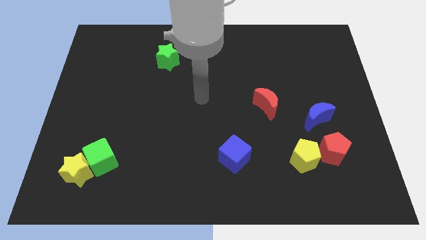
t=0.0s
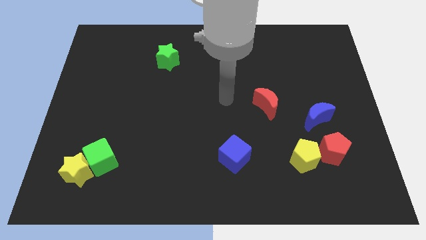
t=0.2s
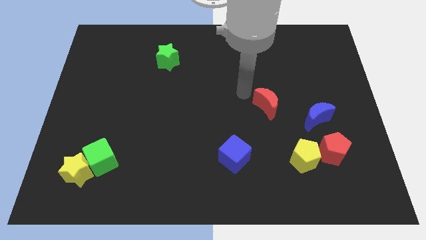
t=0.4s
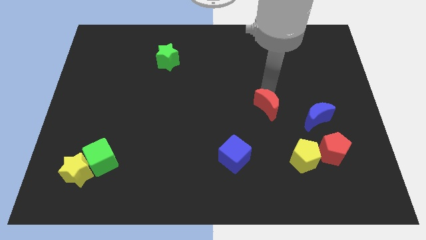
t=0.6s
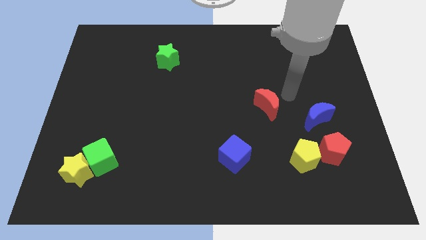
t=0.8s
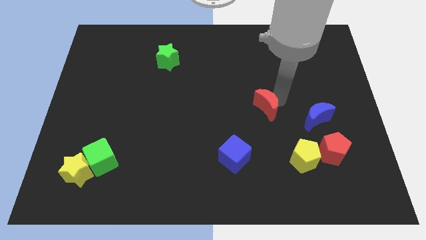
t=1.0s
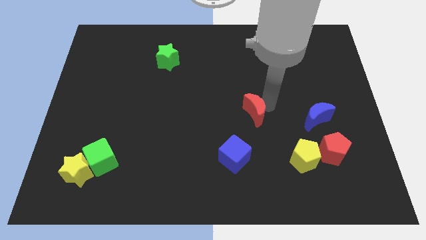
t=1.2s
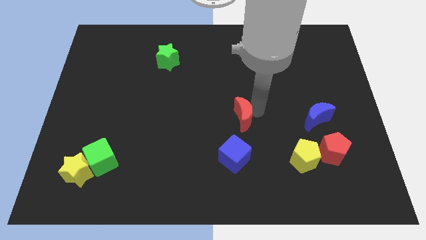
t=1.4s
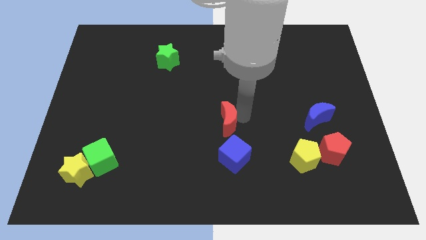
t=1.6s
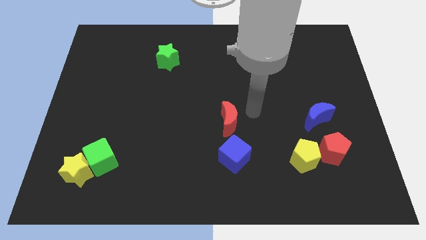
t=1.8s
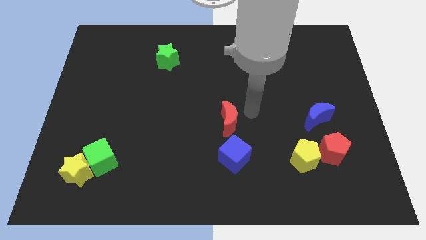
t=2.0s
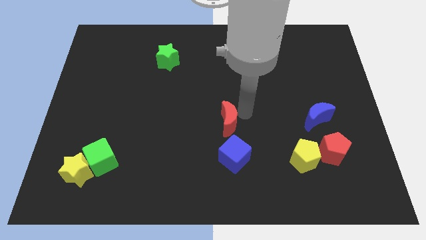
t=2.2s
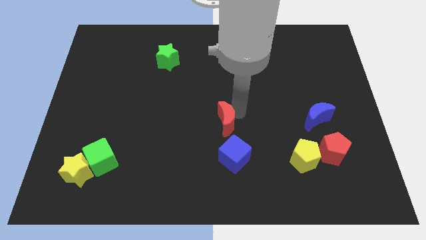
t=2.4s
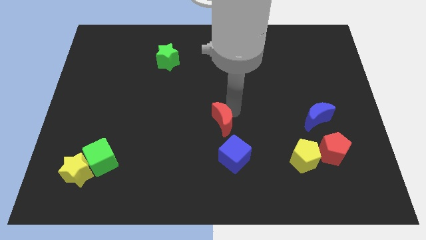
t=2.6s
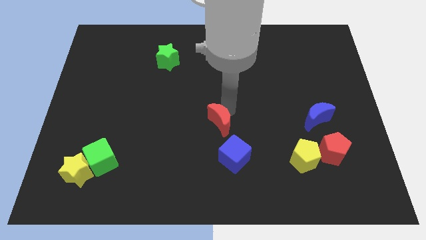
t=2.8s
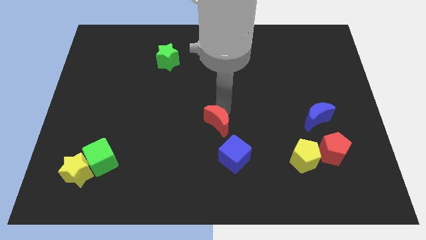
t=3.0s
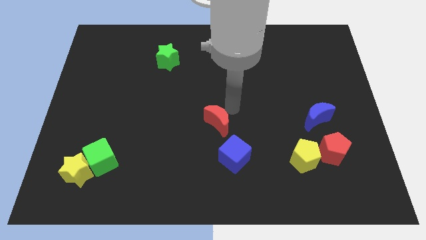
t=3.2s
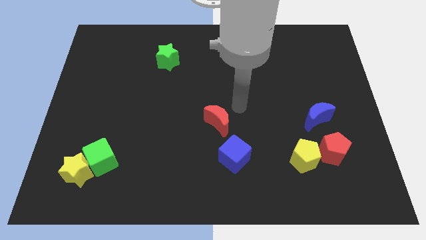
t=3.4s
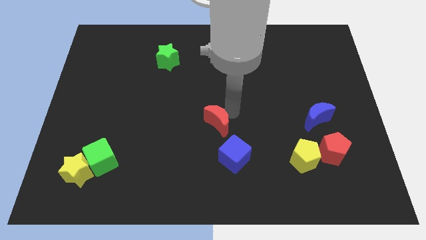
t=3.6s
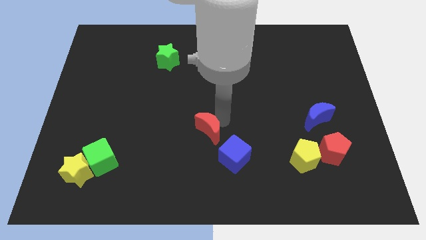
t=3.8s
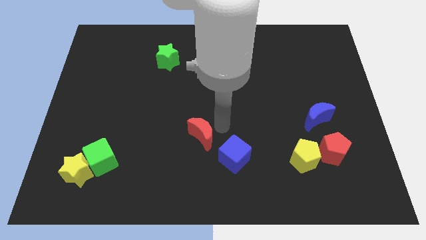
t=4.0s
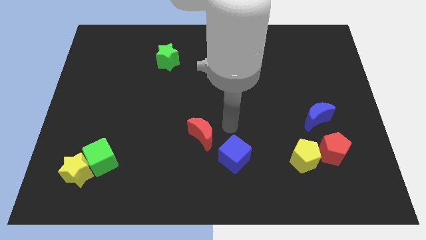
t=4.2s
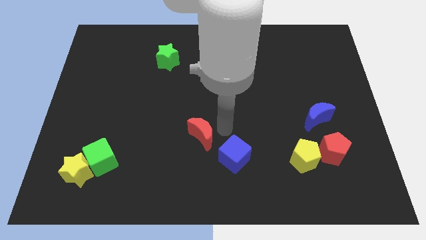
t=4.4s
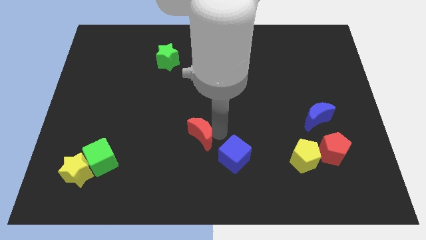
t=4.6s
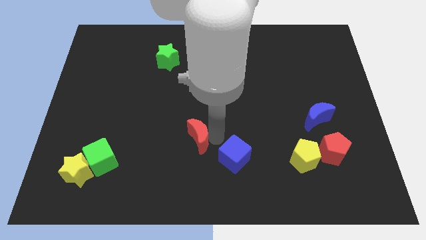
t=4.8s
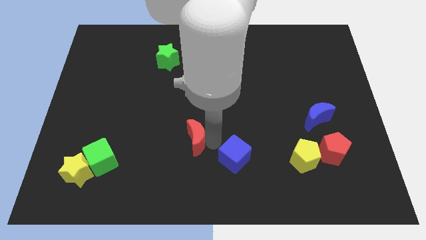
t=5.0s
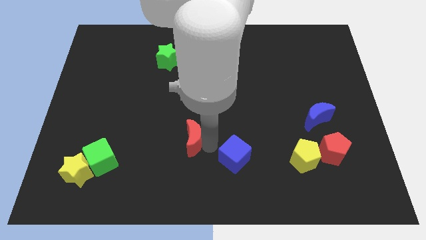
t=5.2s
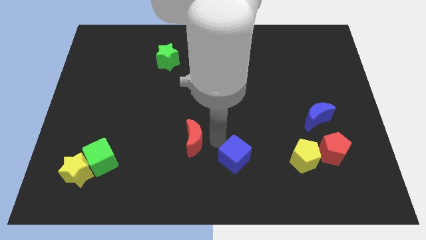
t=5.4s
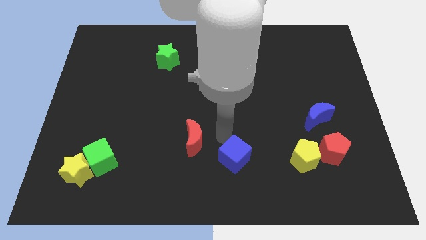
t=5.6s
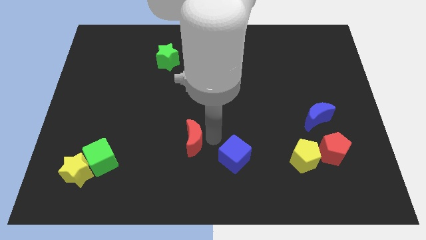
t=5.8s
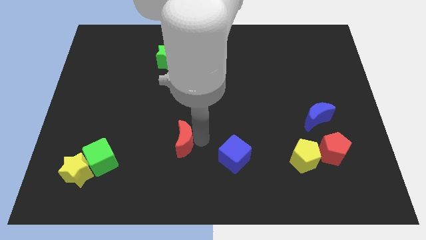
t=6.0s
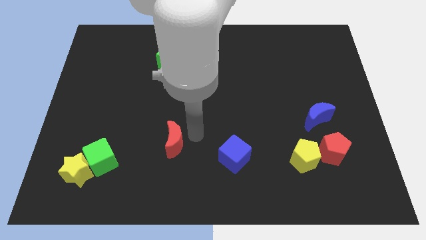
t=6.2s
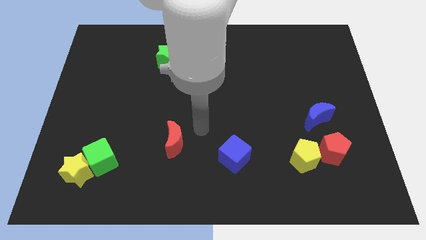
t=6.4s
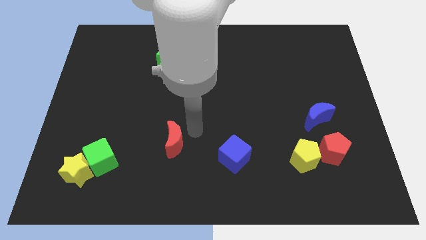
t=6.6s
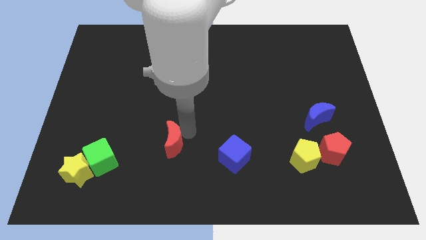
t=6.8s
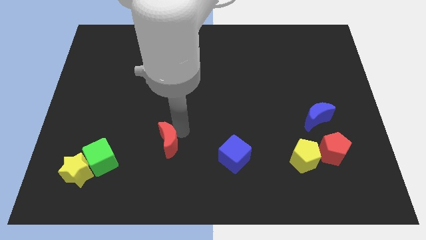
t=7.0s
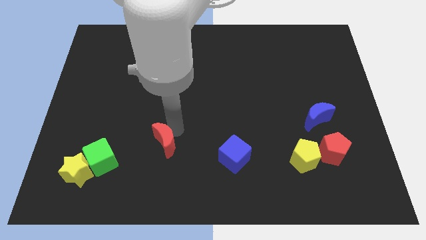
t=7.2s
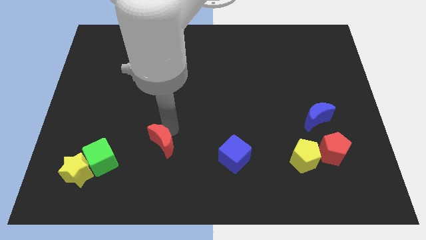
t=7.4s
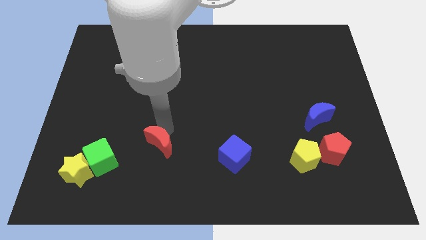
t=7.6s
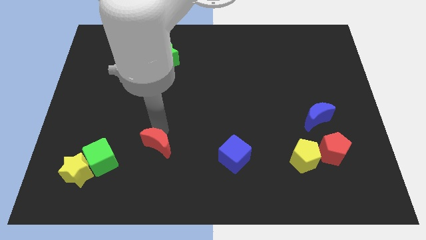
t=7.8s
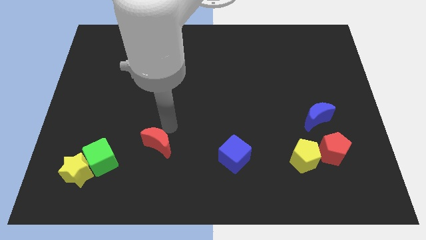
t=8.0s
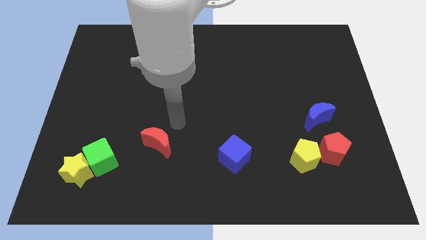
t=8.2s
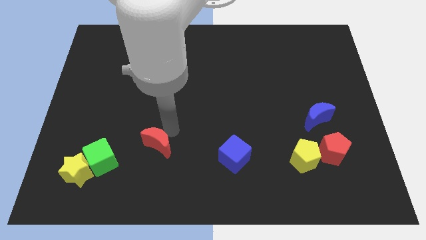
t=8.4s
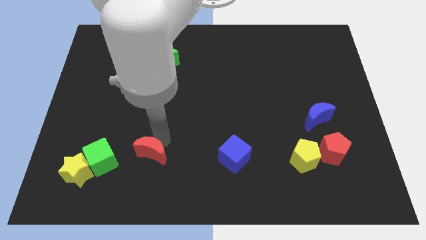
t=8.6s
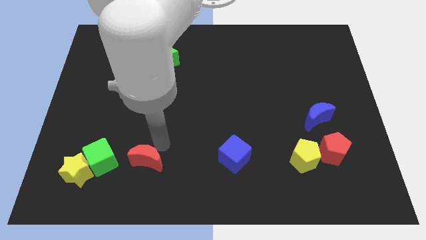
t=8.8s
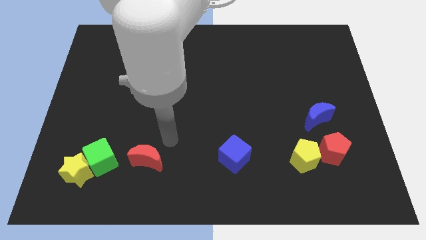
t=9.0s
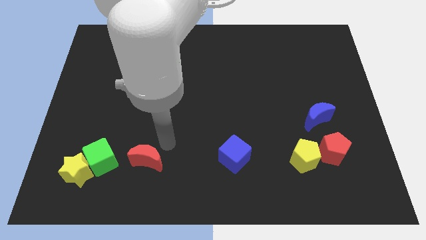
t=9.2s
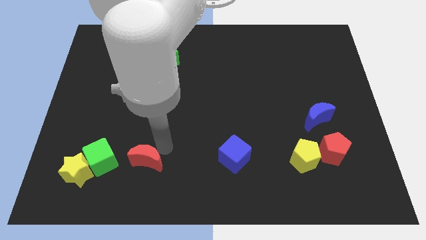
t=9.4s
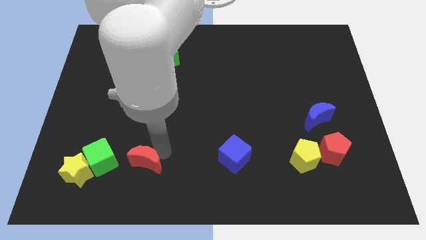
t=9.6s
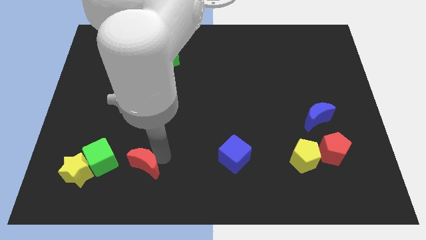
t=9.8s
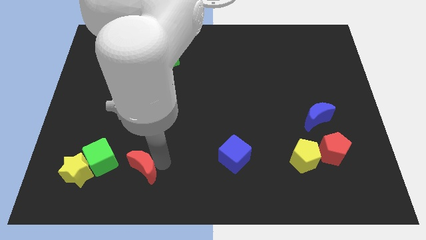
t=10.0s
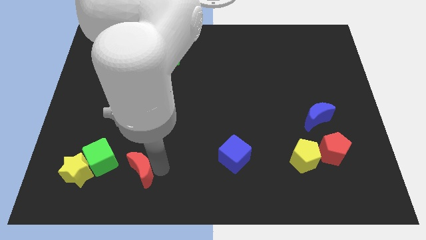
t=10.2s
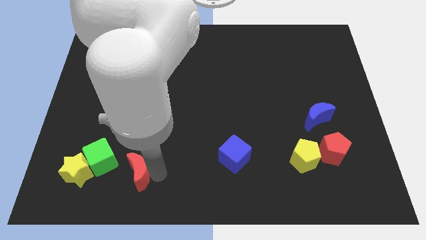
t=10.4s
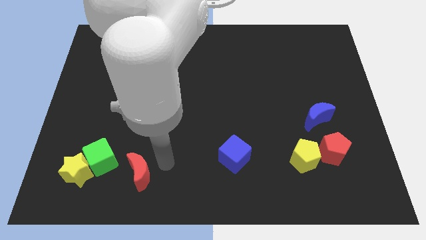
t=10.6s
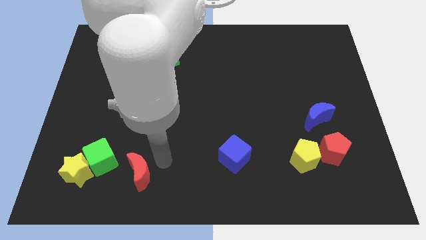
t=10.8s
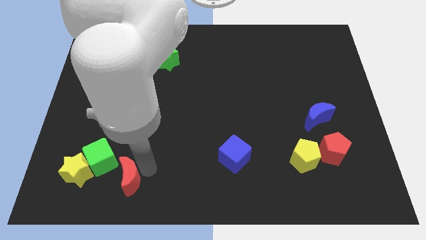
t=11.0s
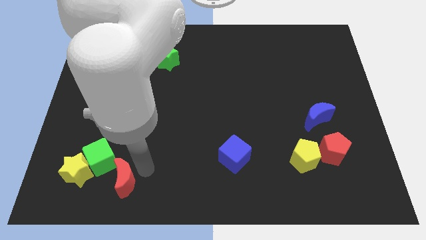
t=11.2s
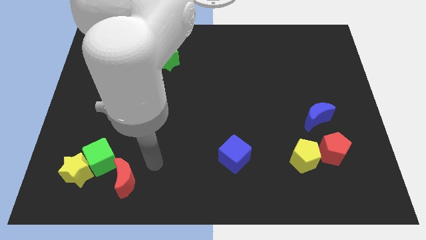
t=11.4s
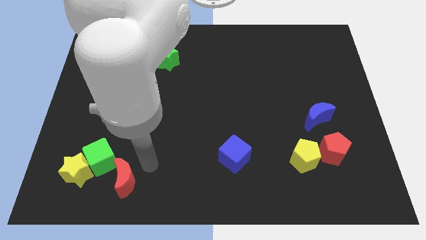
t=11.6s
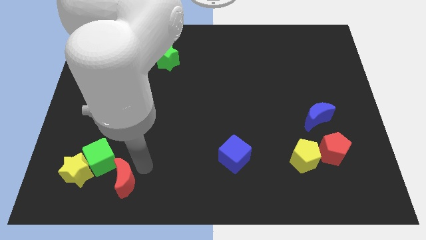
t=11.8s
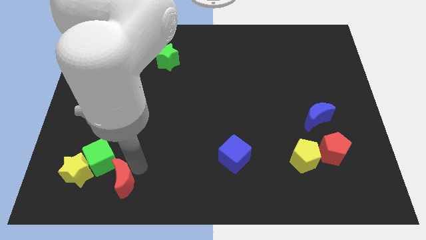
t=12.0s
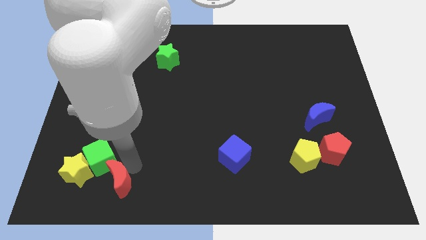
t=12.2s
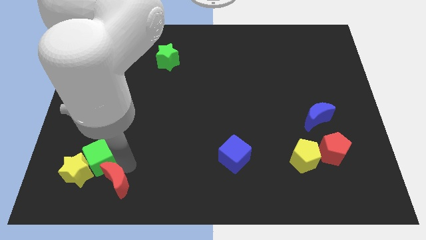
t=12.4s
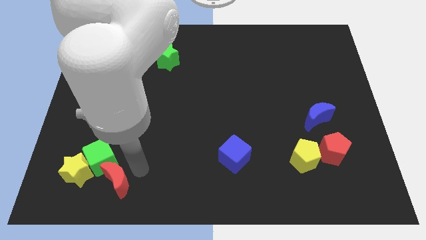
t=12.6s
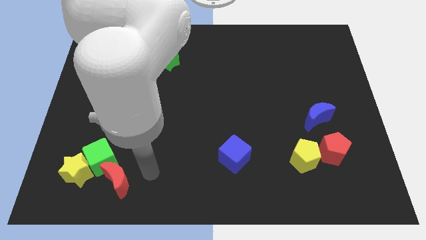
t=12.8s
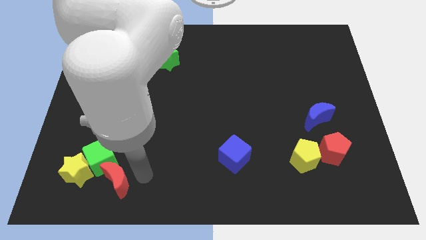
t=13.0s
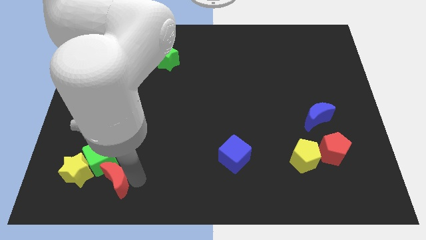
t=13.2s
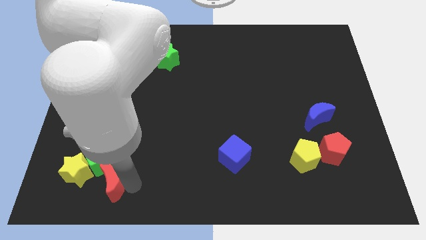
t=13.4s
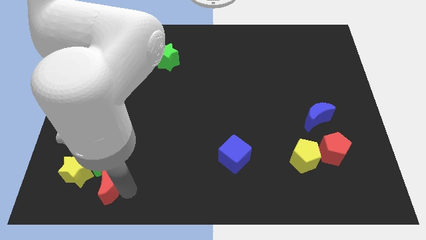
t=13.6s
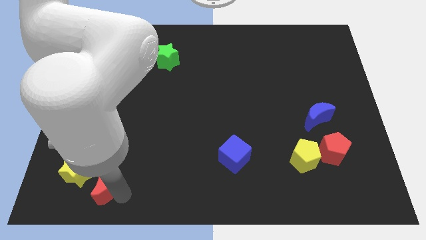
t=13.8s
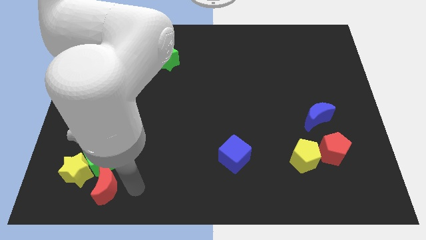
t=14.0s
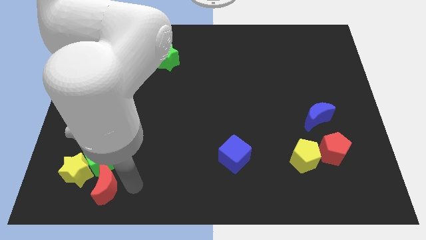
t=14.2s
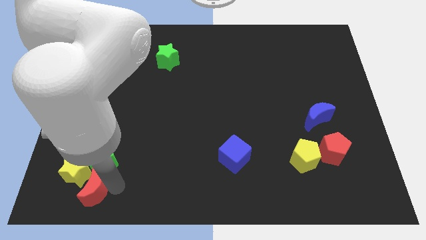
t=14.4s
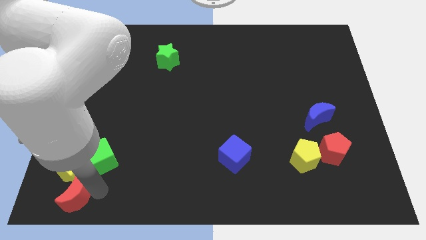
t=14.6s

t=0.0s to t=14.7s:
slide the red moon to the bottom left of the board
